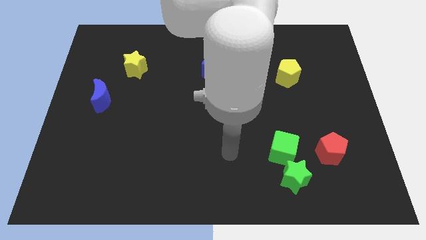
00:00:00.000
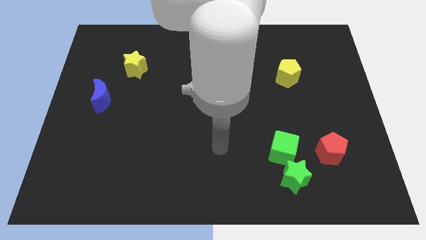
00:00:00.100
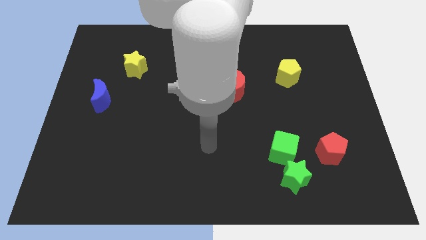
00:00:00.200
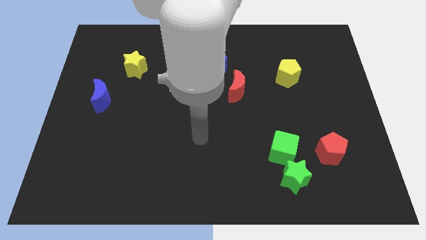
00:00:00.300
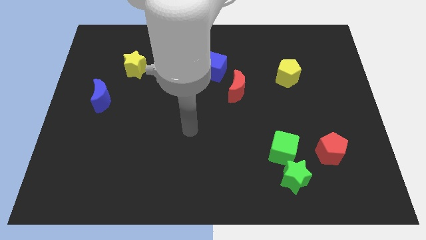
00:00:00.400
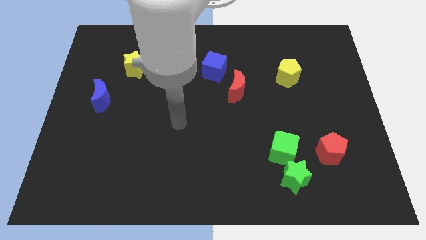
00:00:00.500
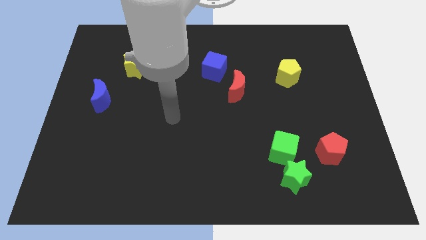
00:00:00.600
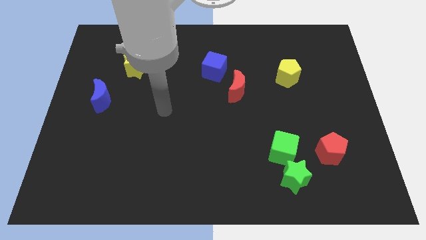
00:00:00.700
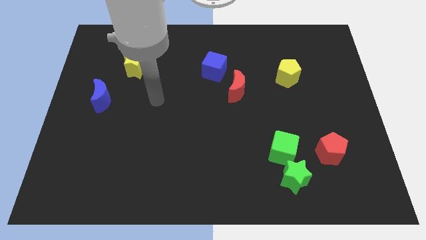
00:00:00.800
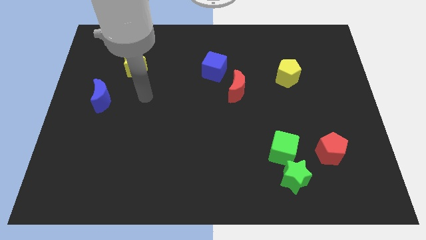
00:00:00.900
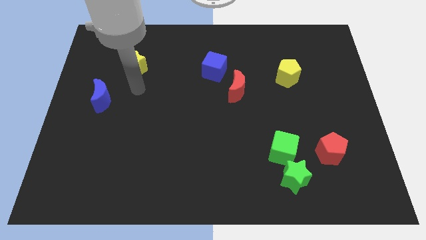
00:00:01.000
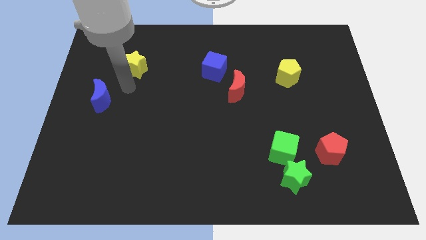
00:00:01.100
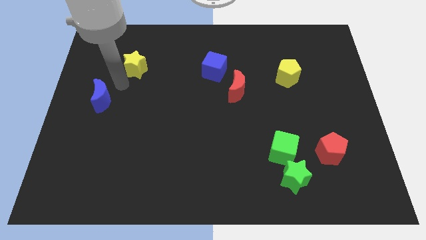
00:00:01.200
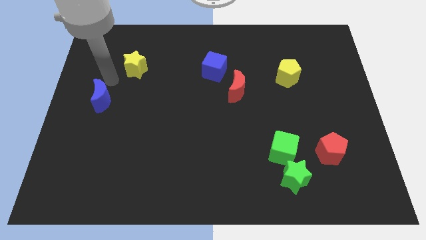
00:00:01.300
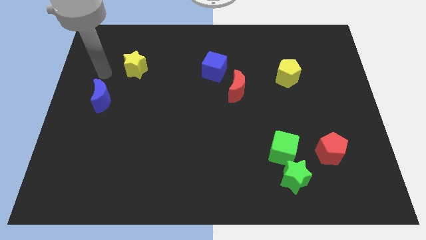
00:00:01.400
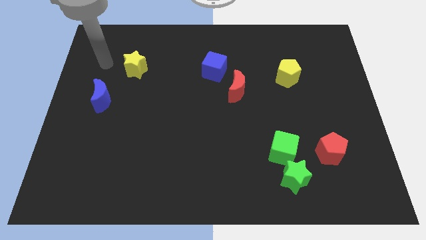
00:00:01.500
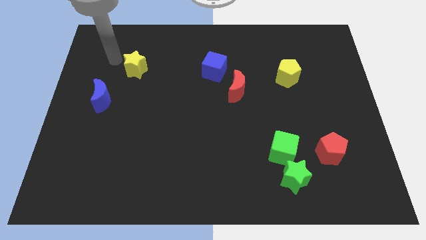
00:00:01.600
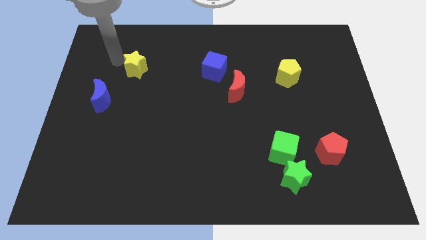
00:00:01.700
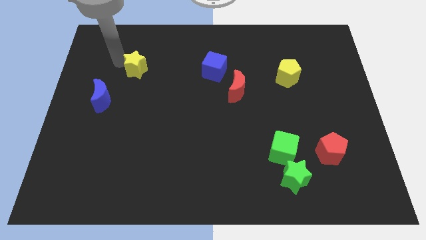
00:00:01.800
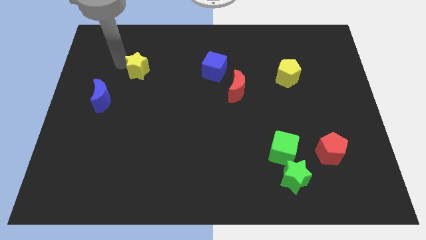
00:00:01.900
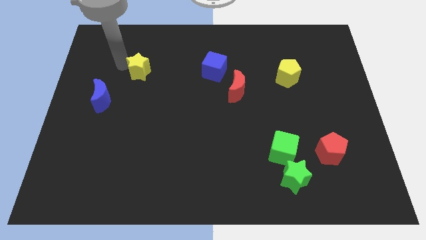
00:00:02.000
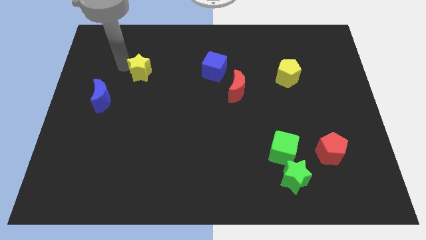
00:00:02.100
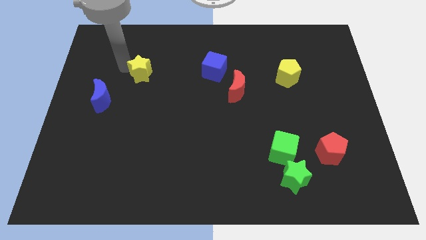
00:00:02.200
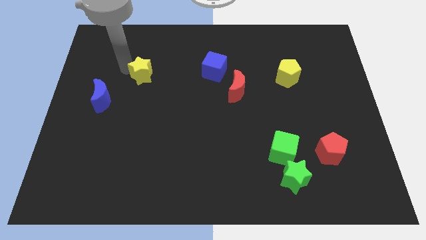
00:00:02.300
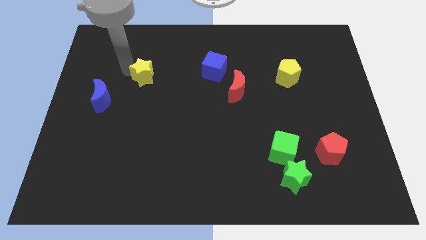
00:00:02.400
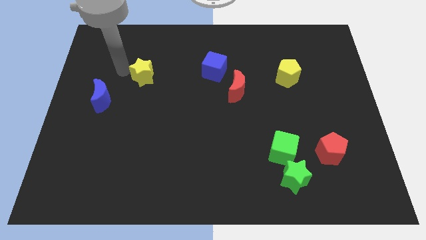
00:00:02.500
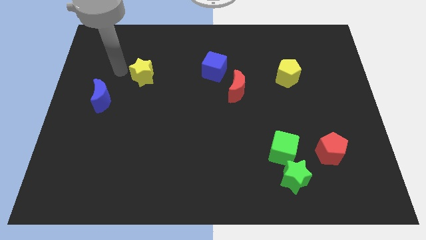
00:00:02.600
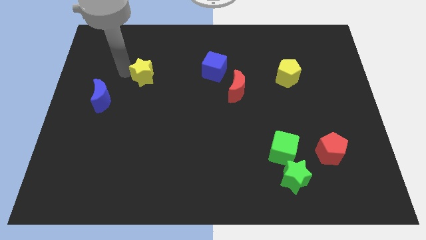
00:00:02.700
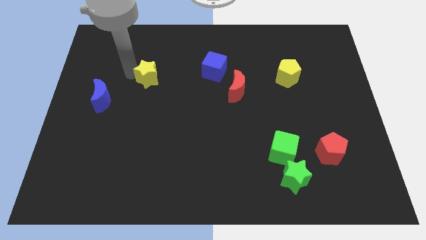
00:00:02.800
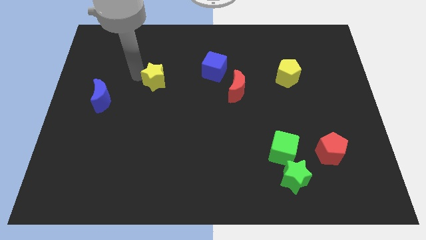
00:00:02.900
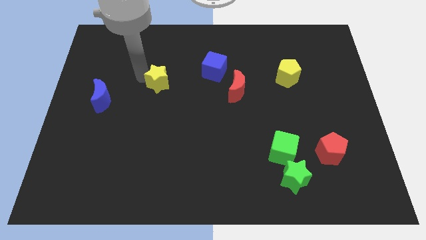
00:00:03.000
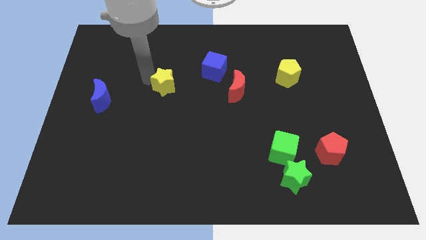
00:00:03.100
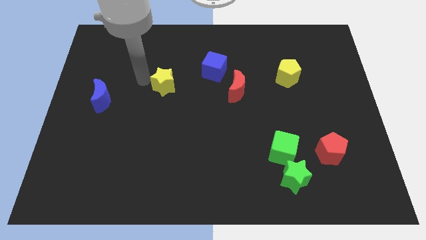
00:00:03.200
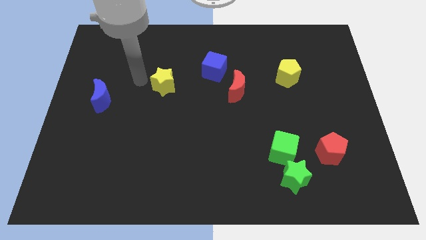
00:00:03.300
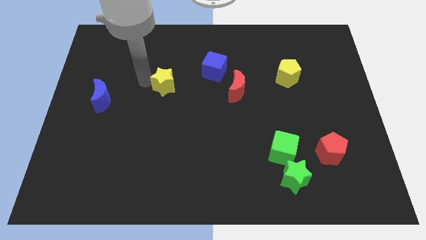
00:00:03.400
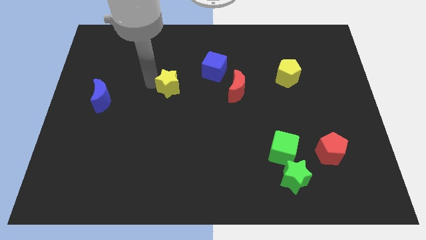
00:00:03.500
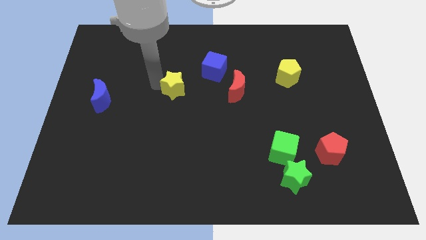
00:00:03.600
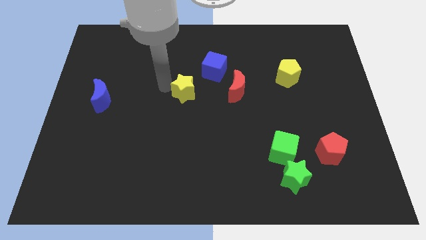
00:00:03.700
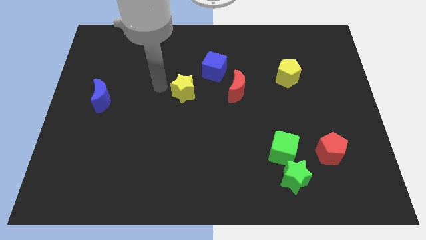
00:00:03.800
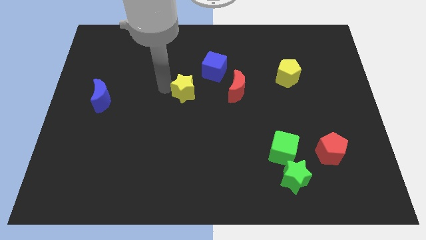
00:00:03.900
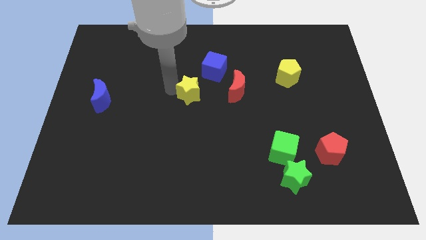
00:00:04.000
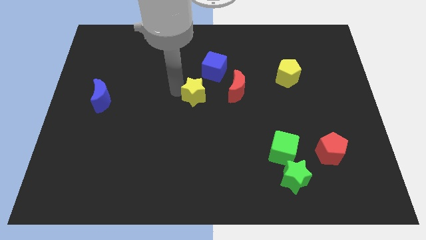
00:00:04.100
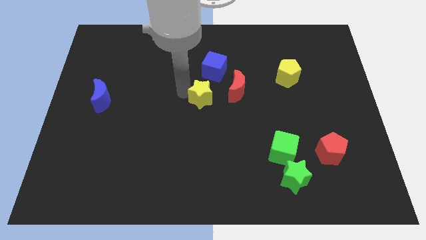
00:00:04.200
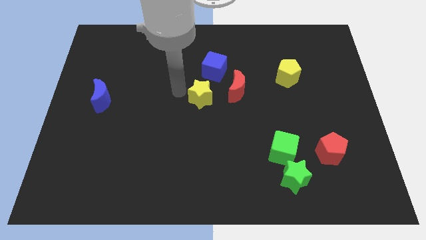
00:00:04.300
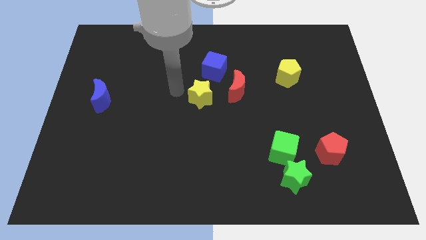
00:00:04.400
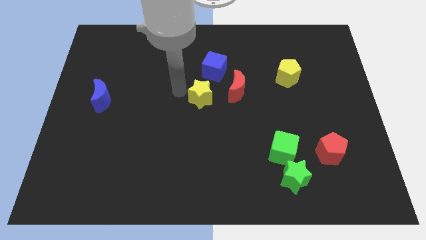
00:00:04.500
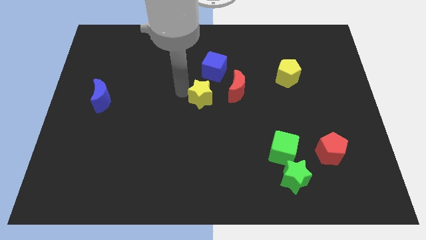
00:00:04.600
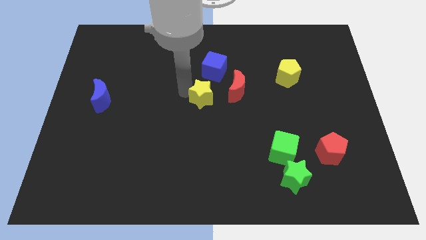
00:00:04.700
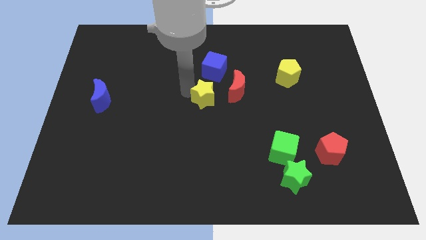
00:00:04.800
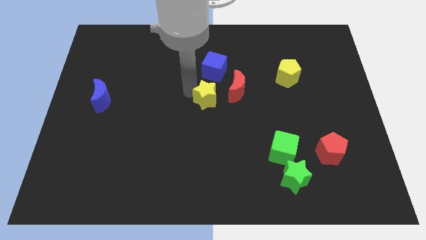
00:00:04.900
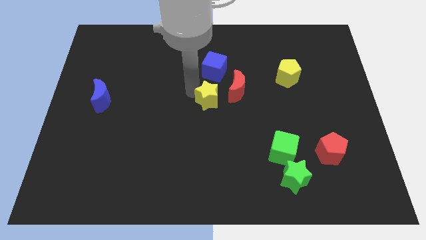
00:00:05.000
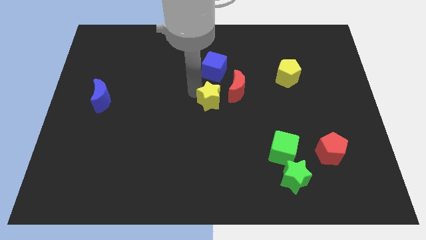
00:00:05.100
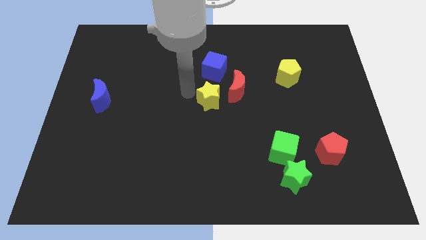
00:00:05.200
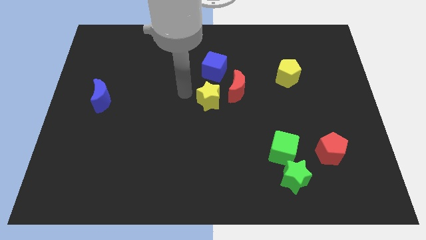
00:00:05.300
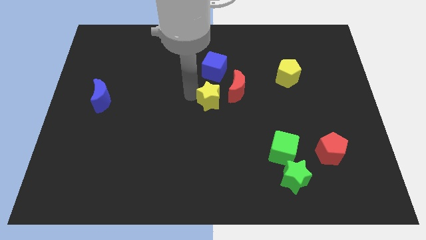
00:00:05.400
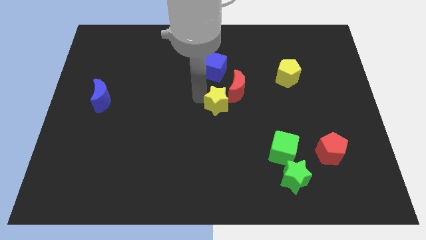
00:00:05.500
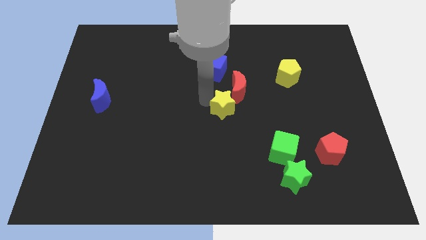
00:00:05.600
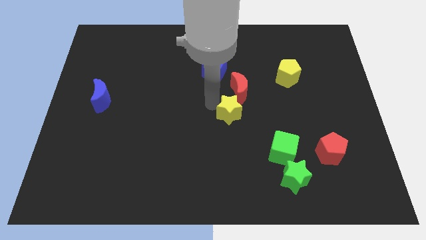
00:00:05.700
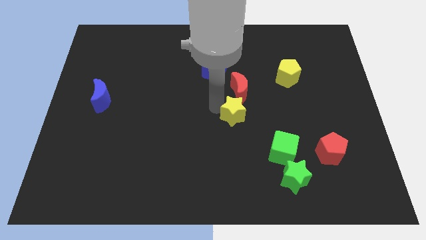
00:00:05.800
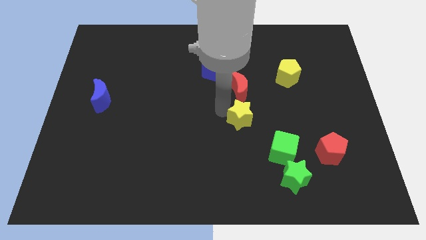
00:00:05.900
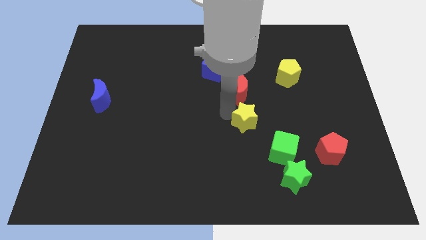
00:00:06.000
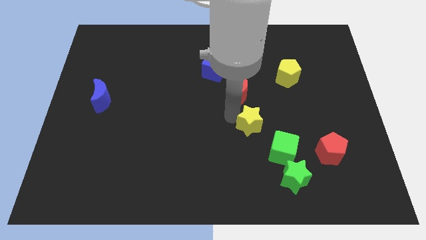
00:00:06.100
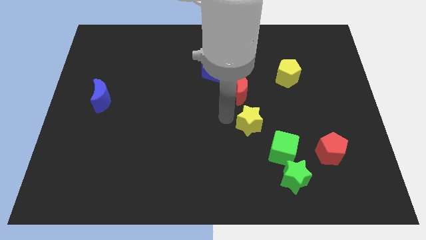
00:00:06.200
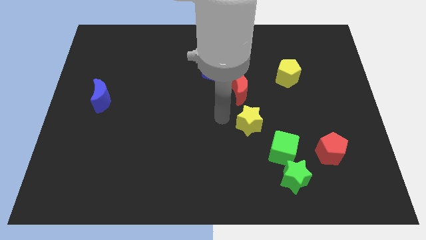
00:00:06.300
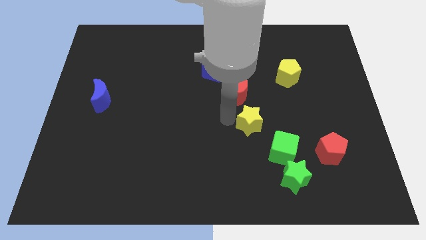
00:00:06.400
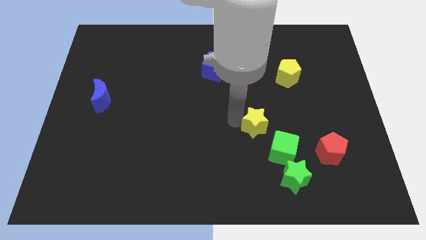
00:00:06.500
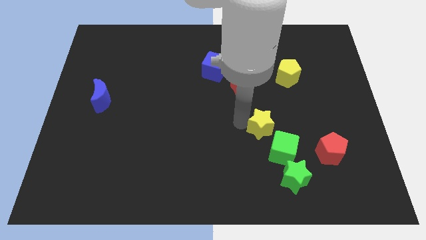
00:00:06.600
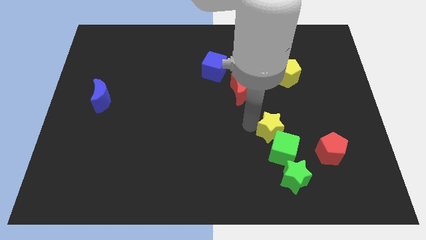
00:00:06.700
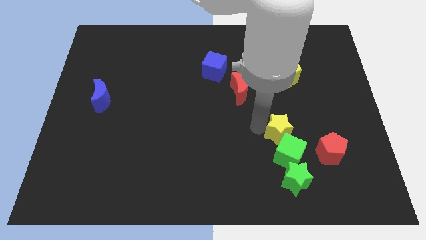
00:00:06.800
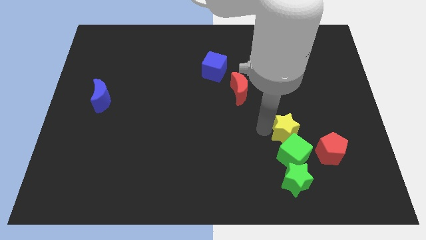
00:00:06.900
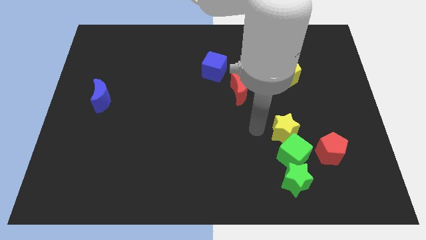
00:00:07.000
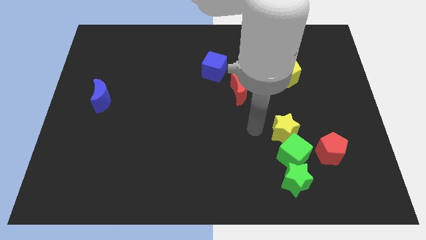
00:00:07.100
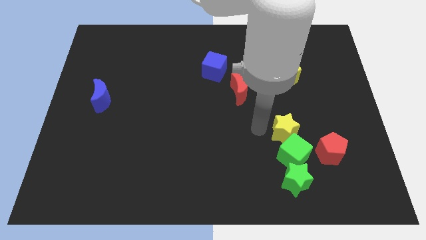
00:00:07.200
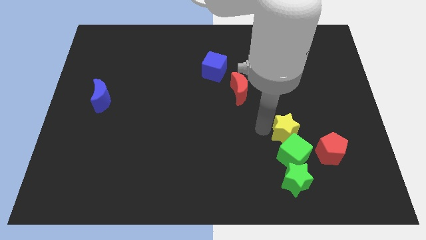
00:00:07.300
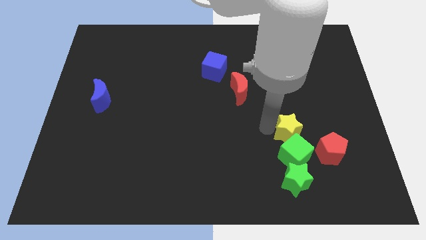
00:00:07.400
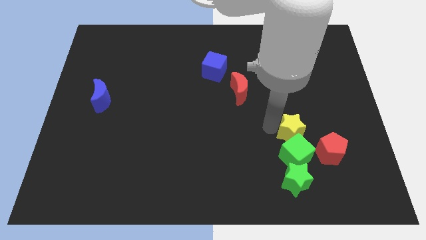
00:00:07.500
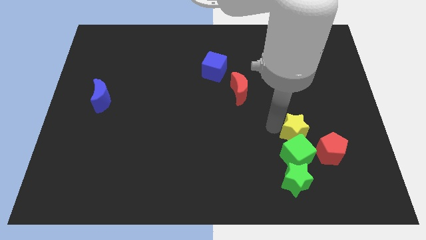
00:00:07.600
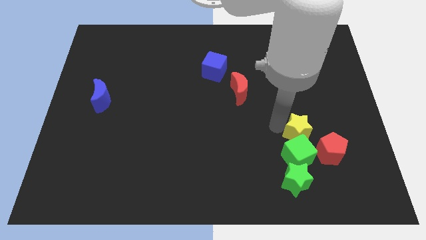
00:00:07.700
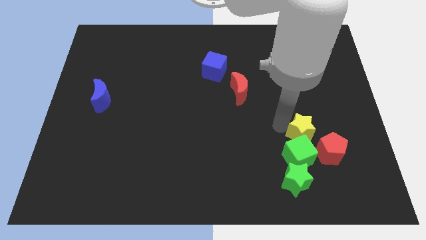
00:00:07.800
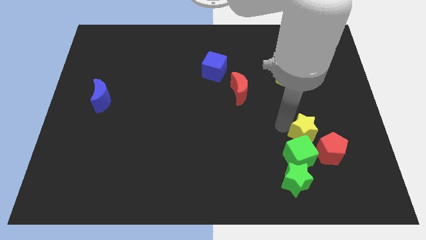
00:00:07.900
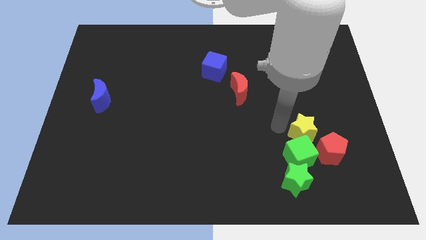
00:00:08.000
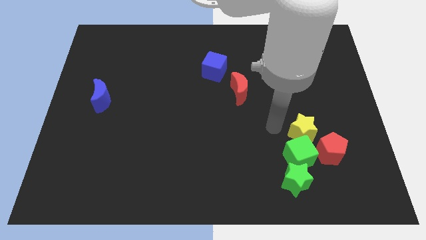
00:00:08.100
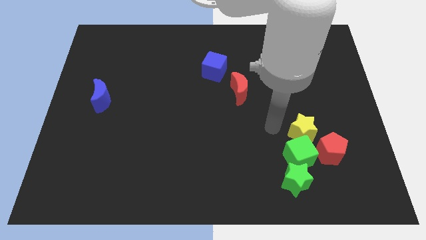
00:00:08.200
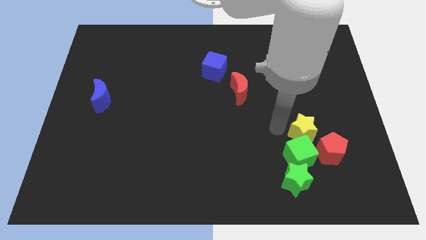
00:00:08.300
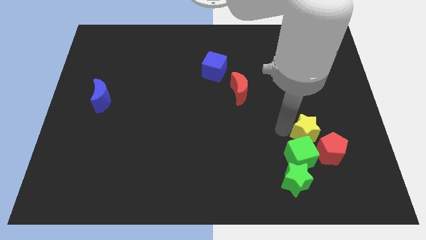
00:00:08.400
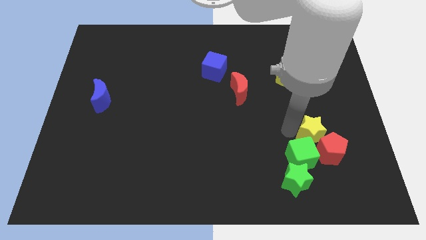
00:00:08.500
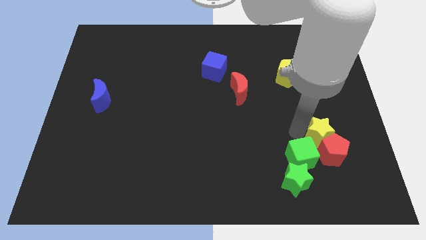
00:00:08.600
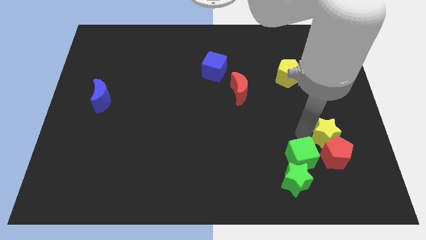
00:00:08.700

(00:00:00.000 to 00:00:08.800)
slide the yellow star to the right of the green cube

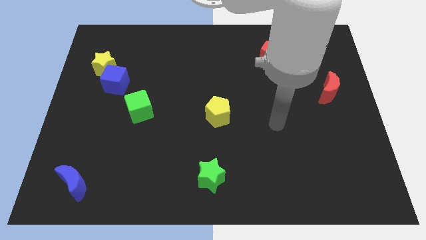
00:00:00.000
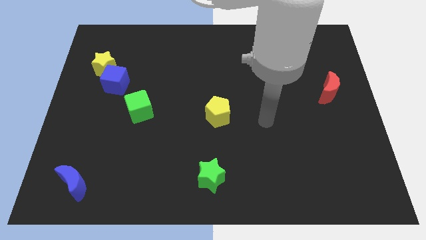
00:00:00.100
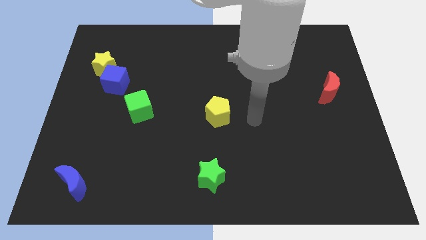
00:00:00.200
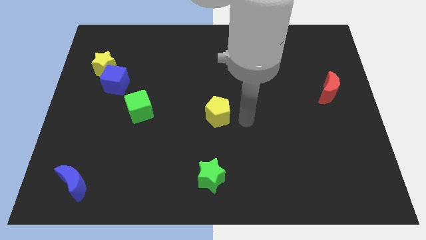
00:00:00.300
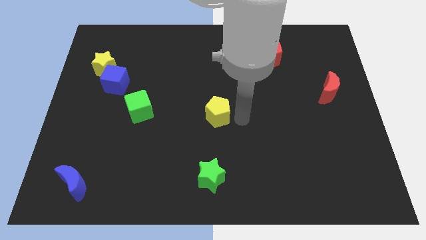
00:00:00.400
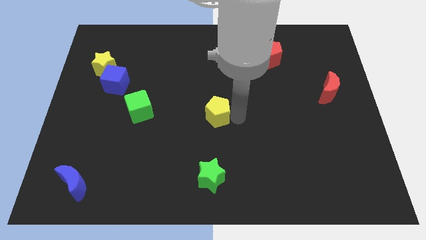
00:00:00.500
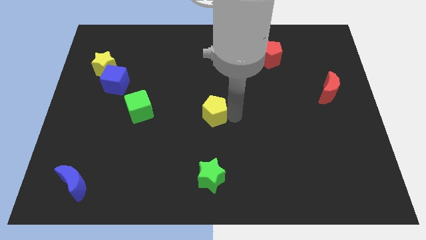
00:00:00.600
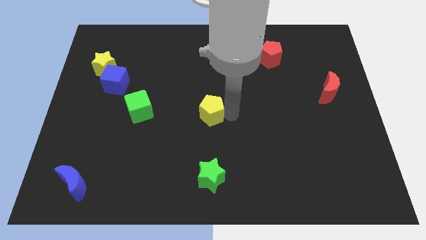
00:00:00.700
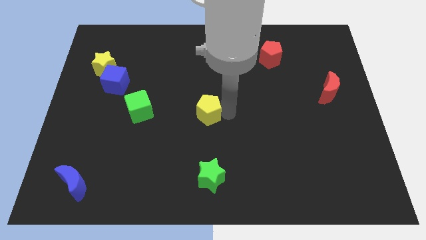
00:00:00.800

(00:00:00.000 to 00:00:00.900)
move the yellow pentagon right of the green cube
